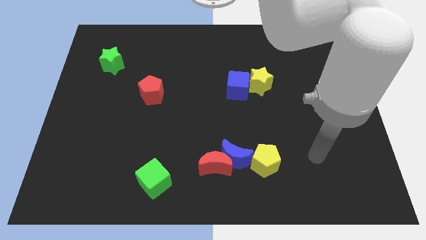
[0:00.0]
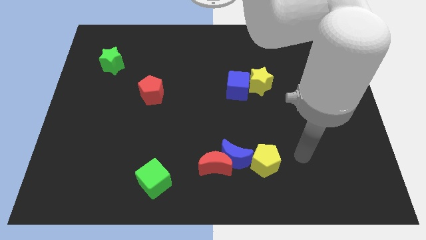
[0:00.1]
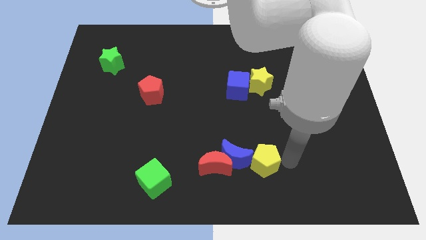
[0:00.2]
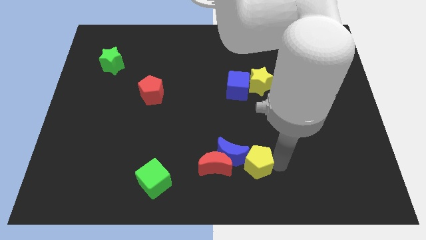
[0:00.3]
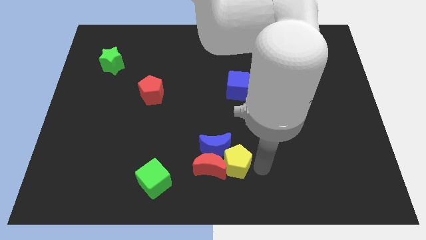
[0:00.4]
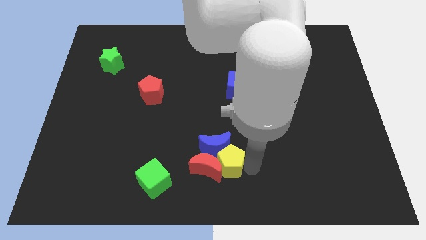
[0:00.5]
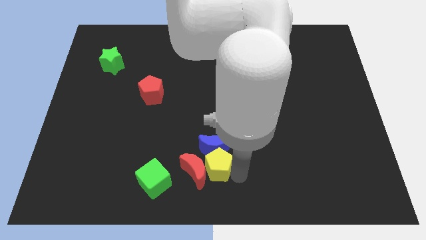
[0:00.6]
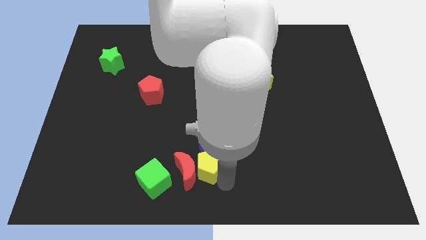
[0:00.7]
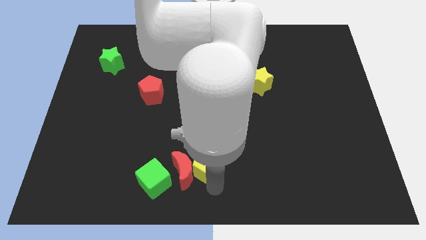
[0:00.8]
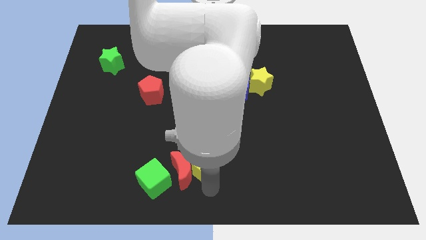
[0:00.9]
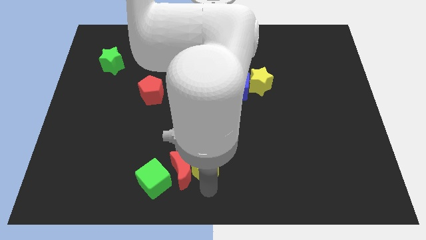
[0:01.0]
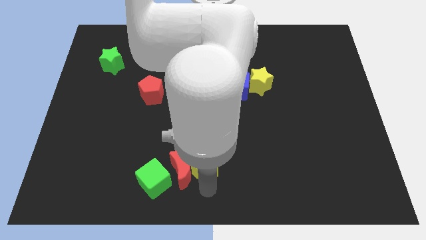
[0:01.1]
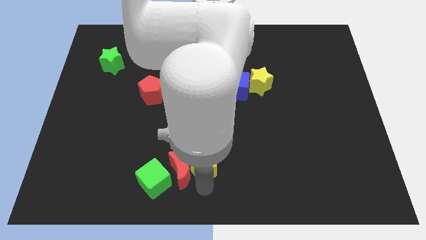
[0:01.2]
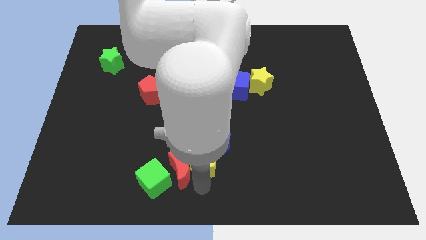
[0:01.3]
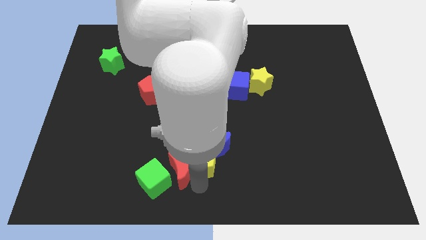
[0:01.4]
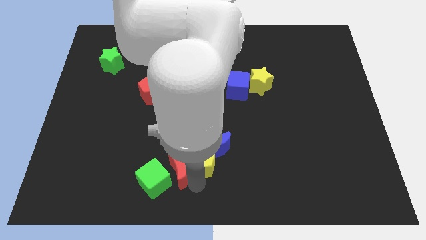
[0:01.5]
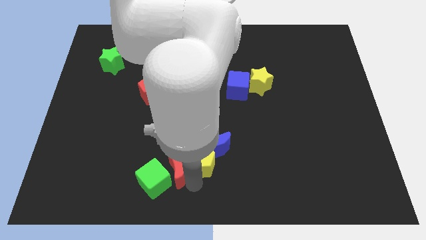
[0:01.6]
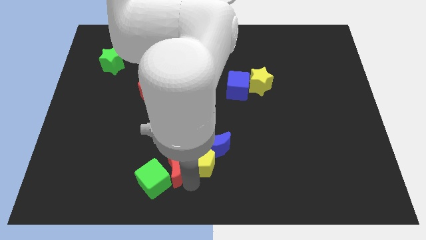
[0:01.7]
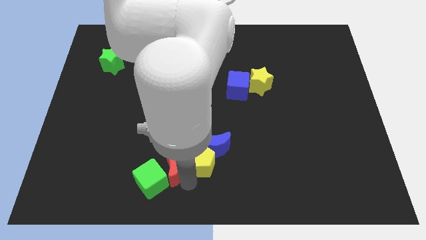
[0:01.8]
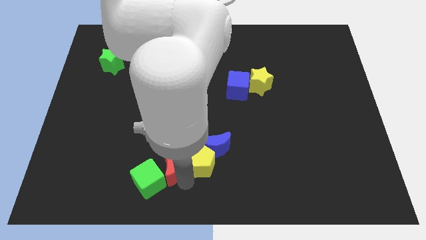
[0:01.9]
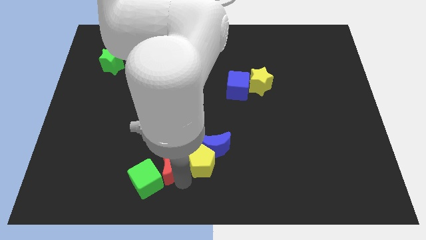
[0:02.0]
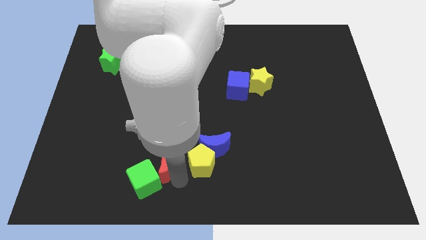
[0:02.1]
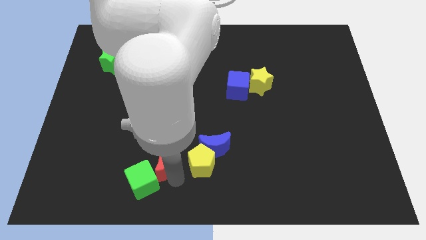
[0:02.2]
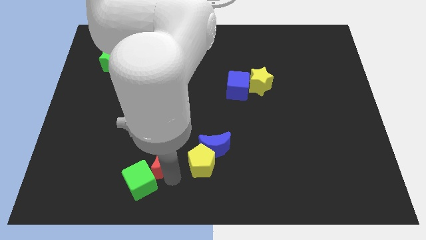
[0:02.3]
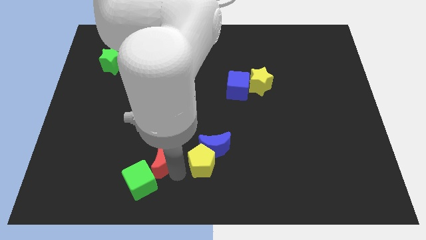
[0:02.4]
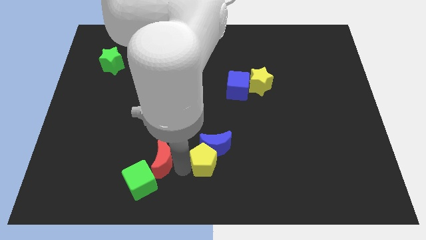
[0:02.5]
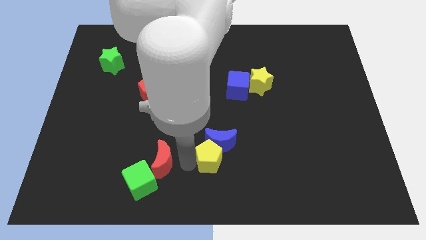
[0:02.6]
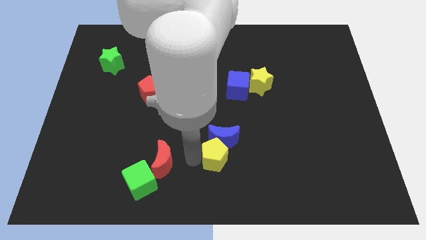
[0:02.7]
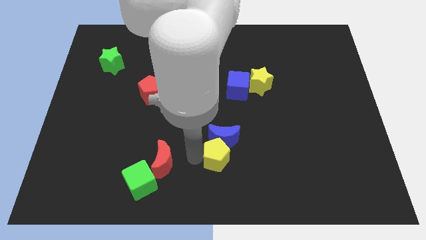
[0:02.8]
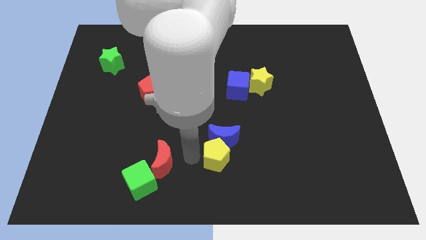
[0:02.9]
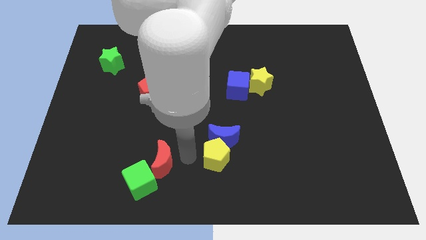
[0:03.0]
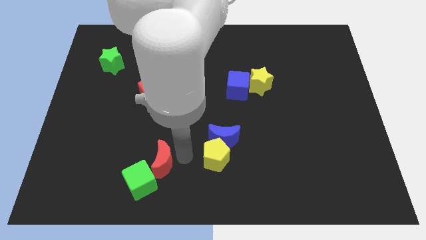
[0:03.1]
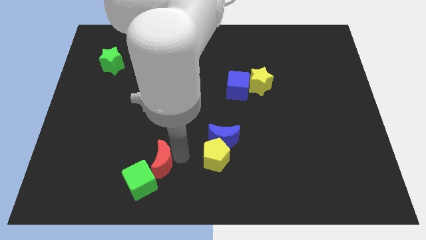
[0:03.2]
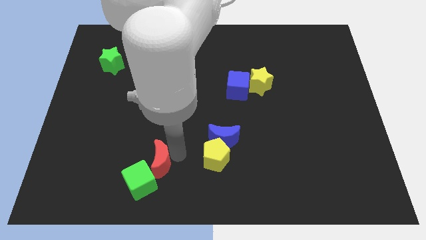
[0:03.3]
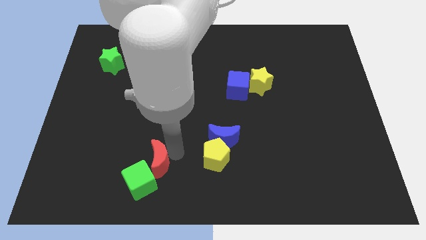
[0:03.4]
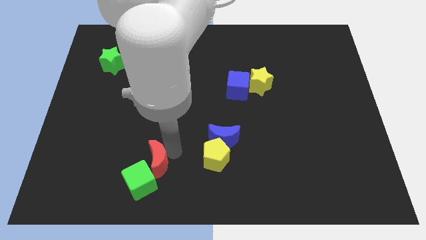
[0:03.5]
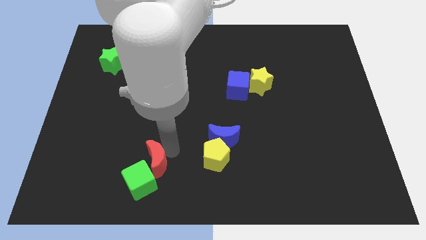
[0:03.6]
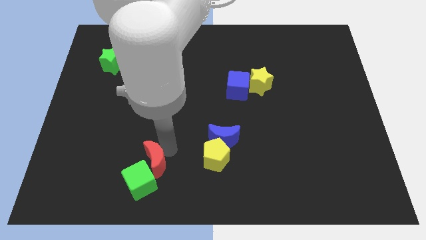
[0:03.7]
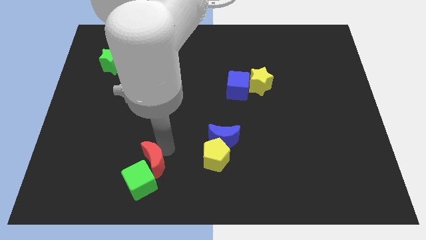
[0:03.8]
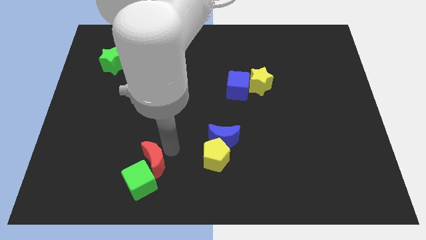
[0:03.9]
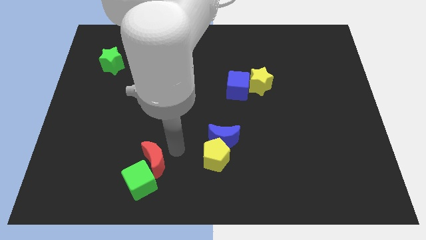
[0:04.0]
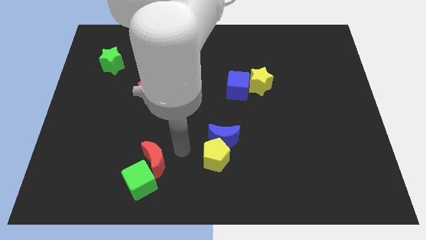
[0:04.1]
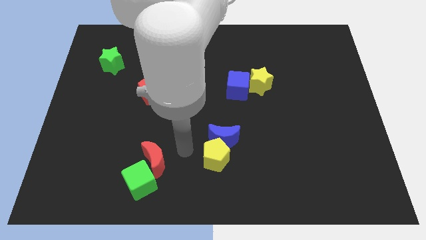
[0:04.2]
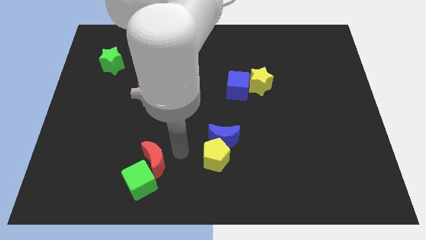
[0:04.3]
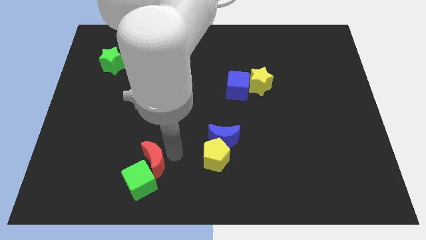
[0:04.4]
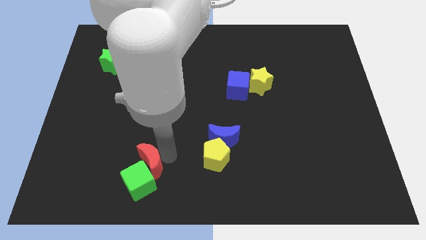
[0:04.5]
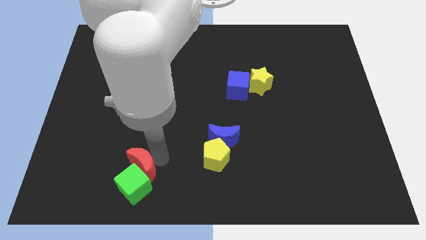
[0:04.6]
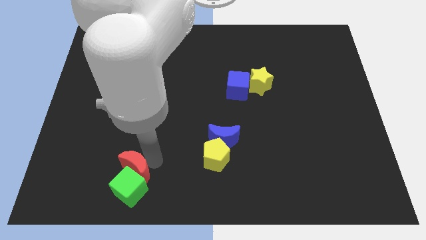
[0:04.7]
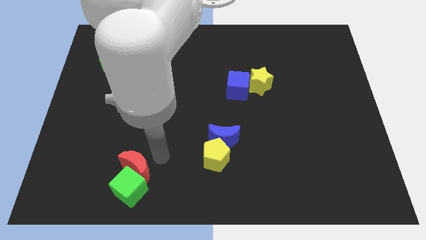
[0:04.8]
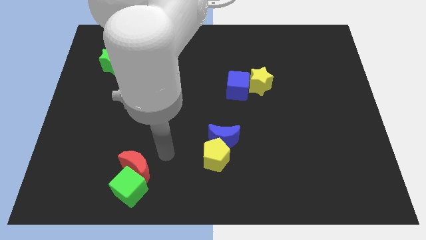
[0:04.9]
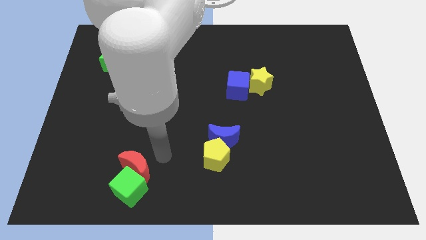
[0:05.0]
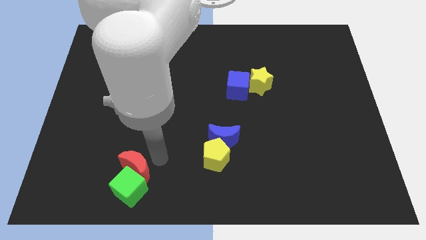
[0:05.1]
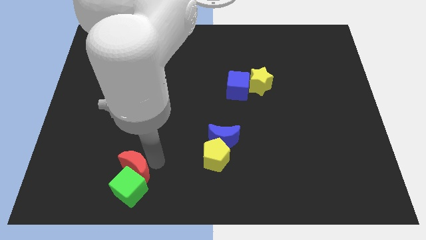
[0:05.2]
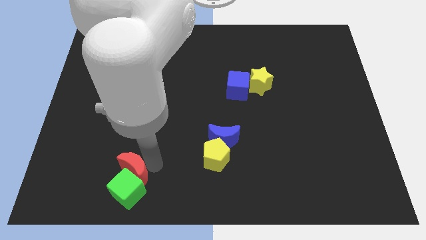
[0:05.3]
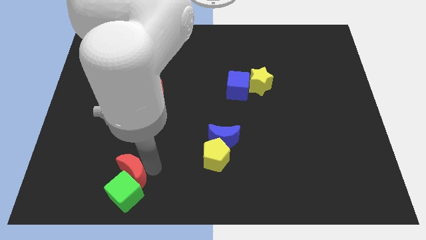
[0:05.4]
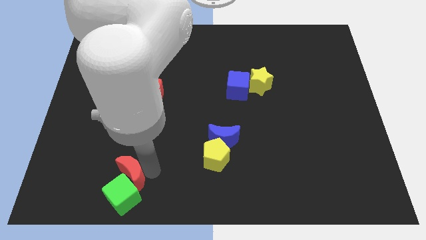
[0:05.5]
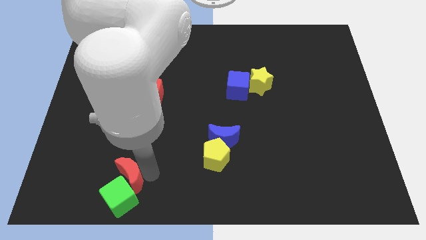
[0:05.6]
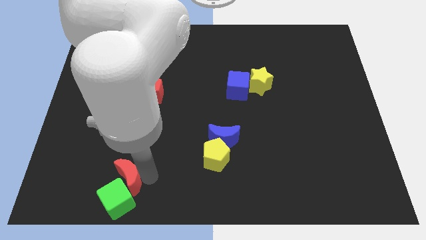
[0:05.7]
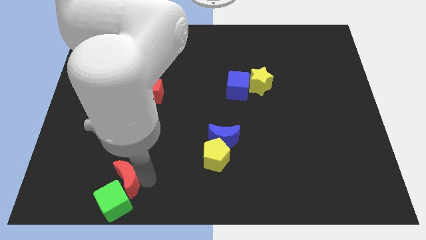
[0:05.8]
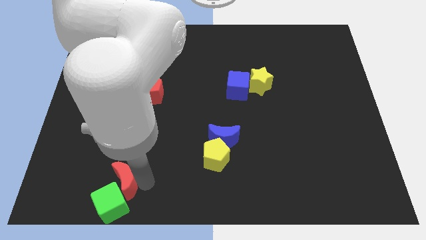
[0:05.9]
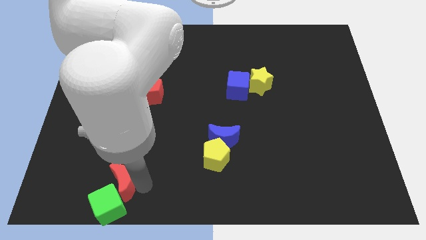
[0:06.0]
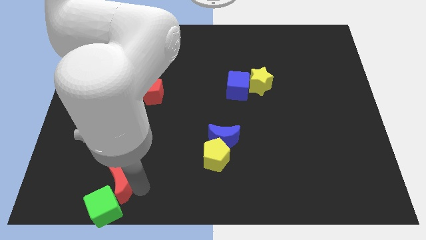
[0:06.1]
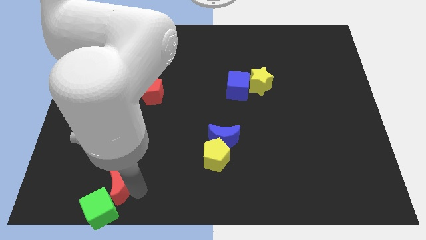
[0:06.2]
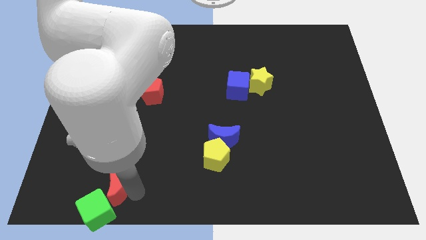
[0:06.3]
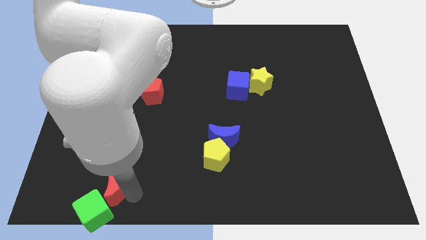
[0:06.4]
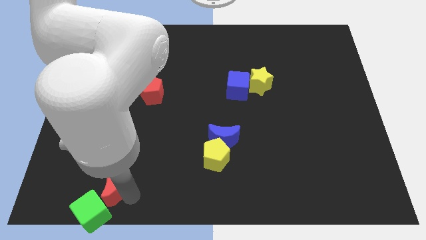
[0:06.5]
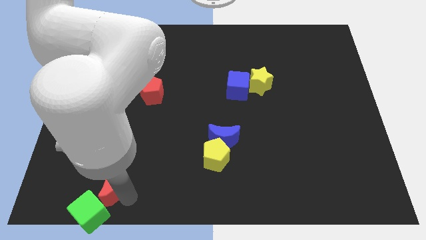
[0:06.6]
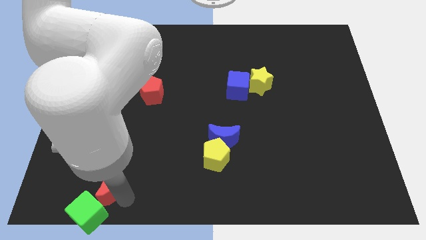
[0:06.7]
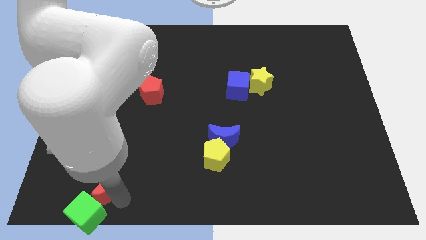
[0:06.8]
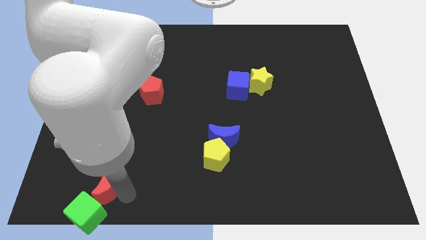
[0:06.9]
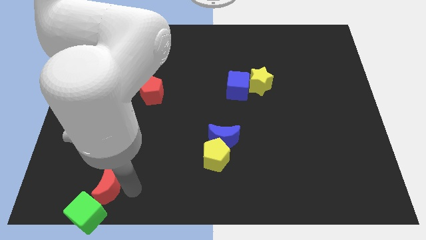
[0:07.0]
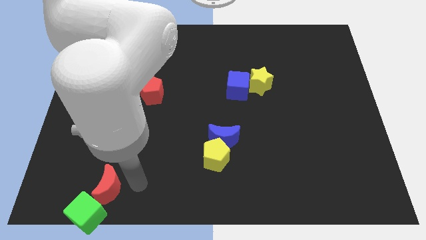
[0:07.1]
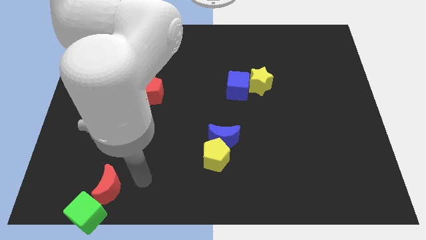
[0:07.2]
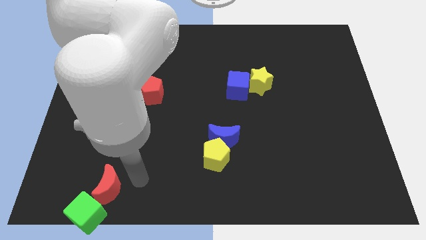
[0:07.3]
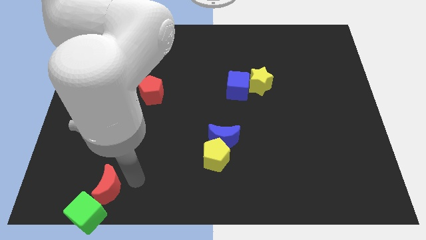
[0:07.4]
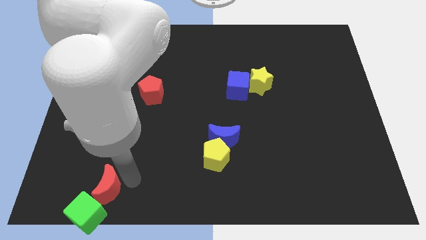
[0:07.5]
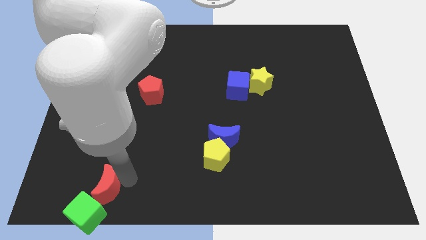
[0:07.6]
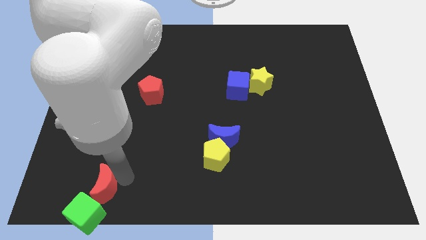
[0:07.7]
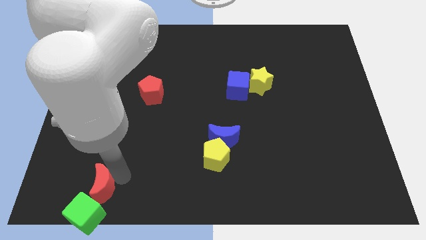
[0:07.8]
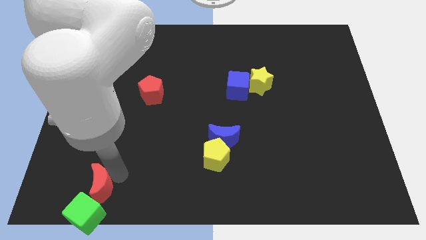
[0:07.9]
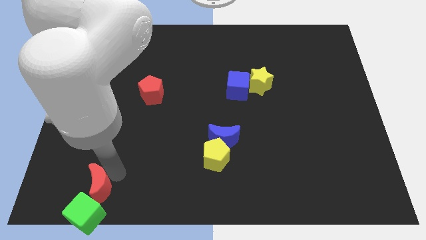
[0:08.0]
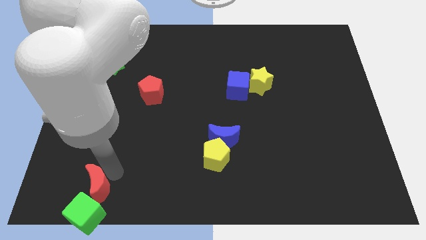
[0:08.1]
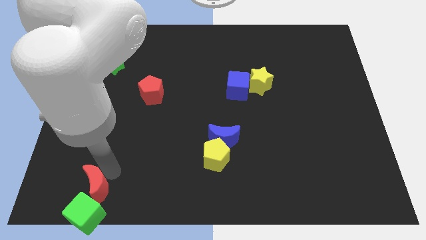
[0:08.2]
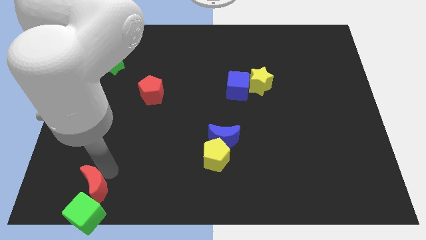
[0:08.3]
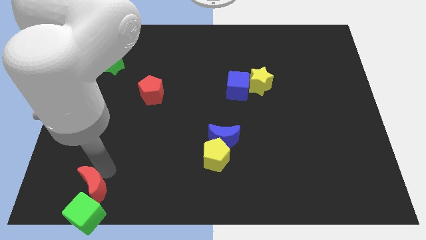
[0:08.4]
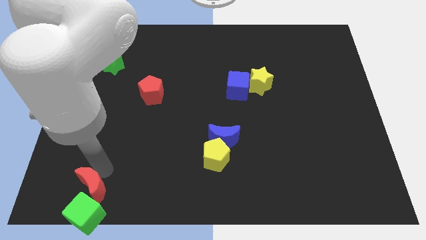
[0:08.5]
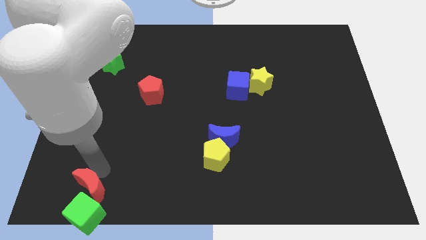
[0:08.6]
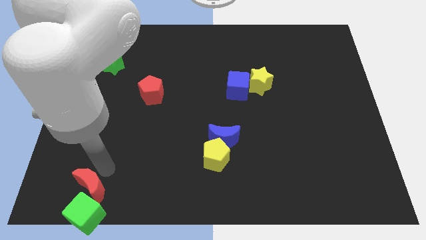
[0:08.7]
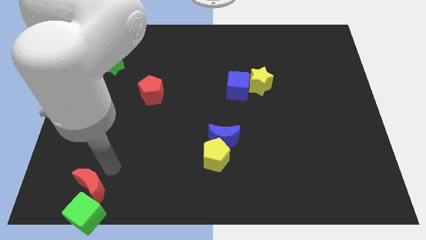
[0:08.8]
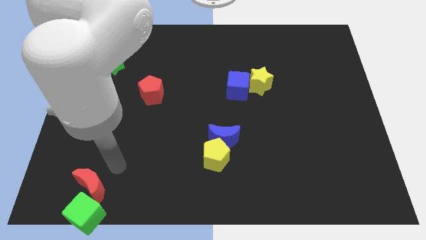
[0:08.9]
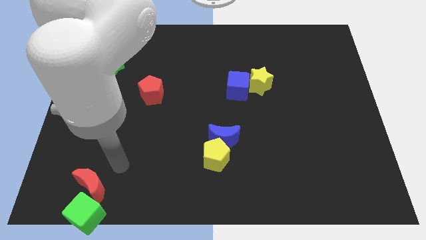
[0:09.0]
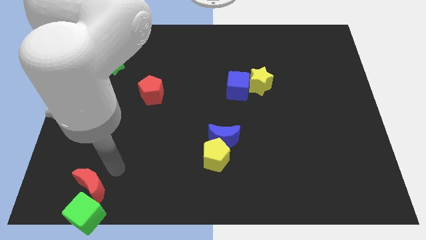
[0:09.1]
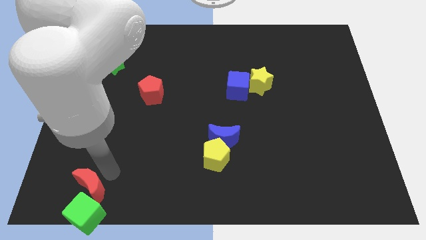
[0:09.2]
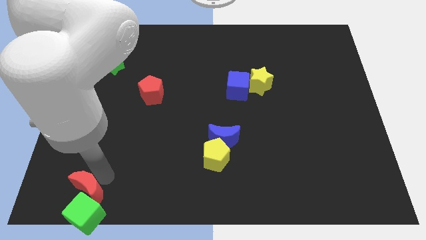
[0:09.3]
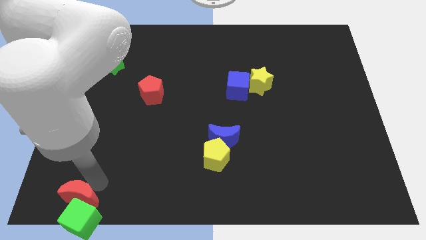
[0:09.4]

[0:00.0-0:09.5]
put the red moon to the bottom left of the board
